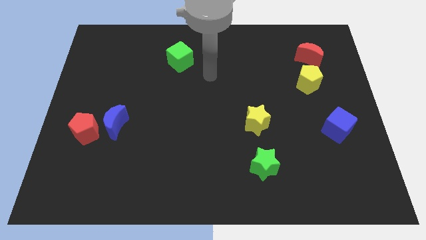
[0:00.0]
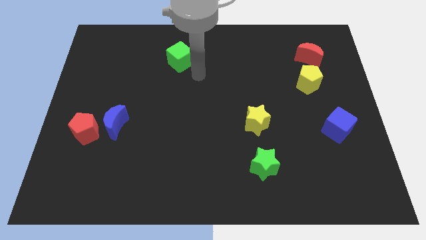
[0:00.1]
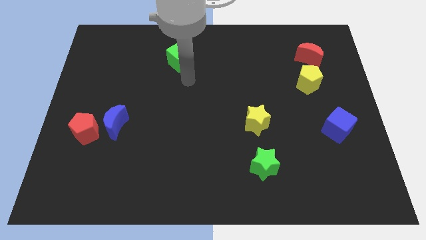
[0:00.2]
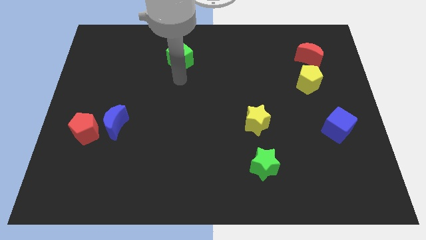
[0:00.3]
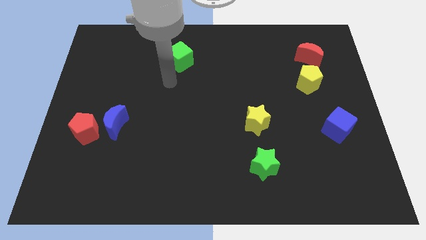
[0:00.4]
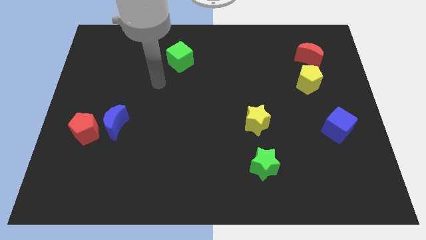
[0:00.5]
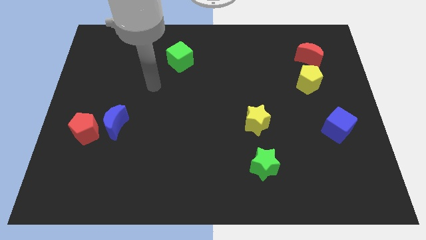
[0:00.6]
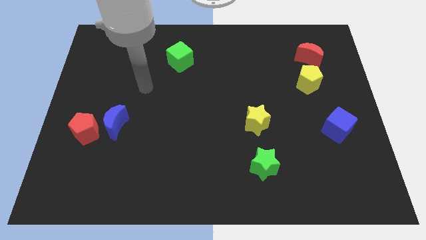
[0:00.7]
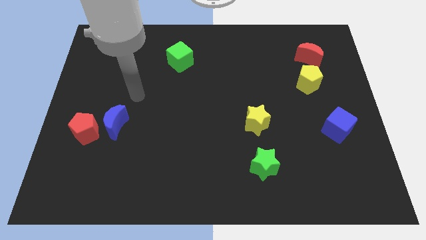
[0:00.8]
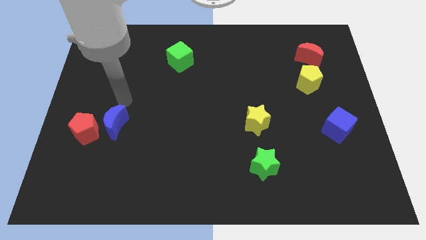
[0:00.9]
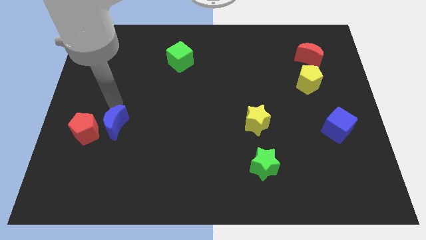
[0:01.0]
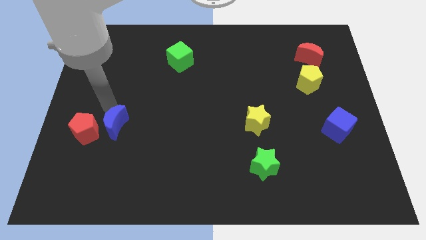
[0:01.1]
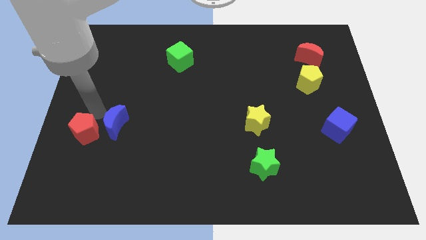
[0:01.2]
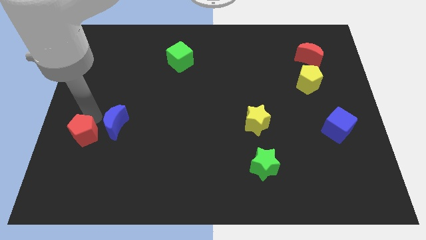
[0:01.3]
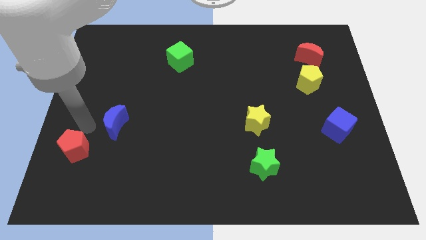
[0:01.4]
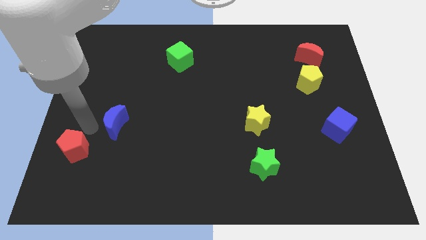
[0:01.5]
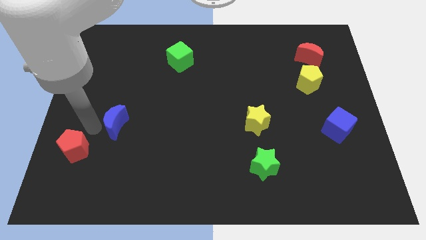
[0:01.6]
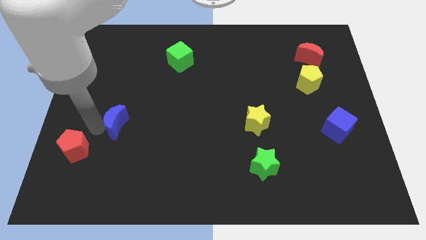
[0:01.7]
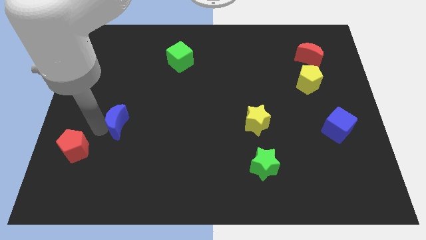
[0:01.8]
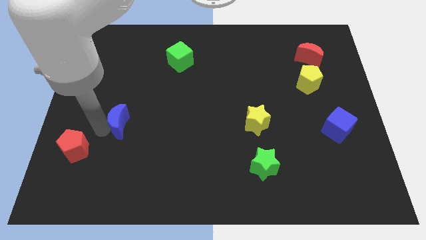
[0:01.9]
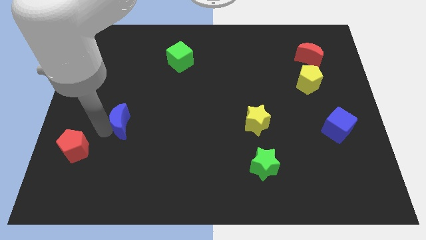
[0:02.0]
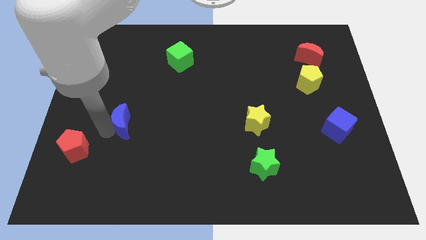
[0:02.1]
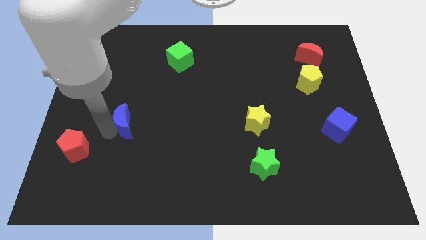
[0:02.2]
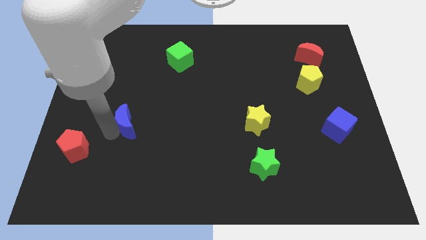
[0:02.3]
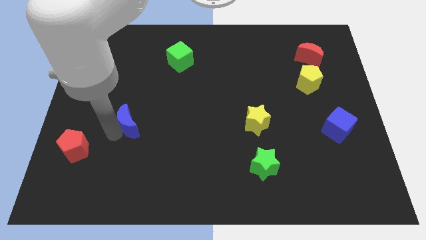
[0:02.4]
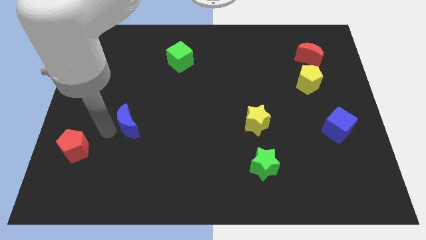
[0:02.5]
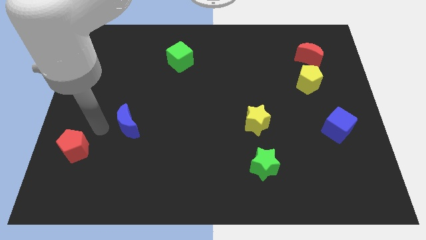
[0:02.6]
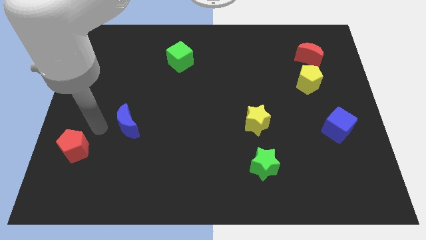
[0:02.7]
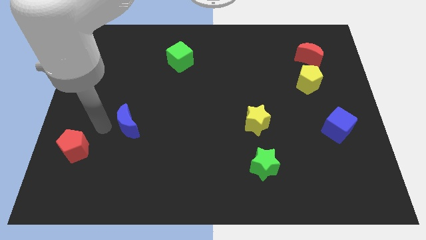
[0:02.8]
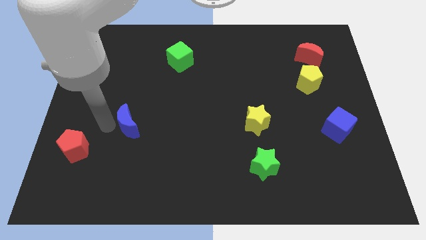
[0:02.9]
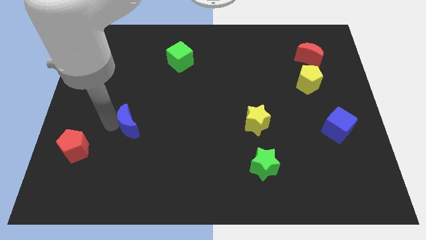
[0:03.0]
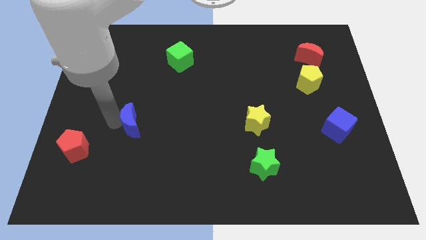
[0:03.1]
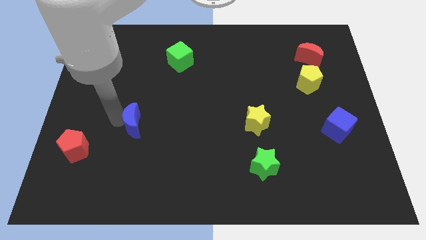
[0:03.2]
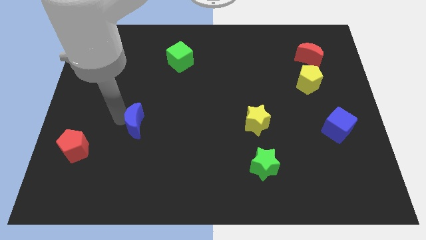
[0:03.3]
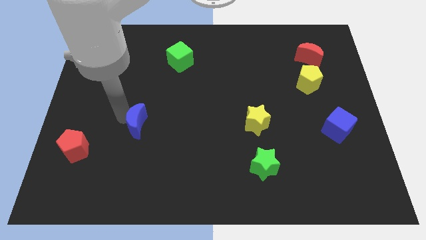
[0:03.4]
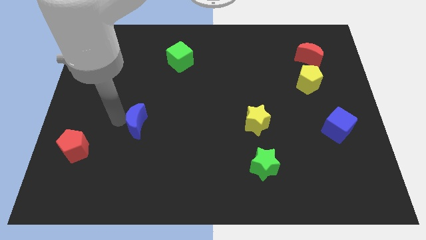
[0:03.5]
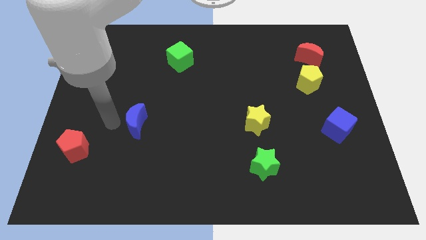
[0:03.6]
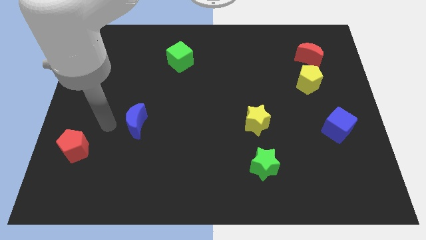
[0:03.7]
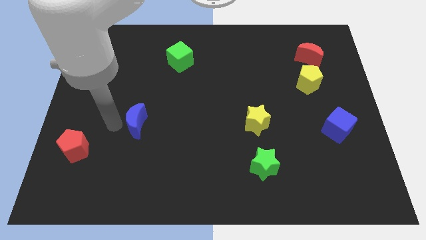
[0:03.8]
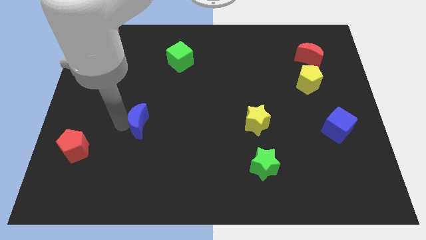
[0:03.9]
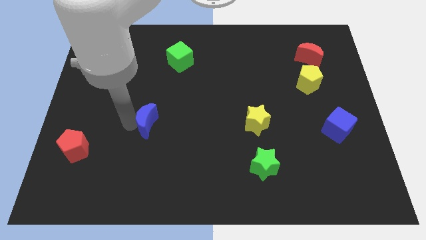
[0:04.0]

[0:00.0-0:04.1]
slightly slide the blue moon right

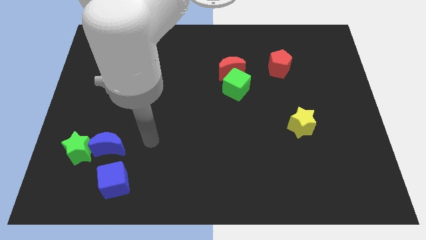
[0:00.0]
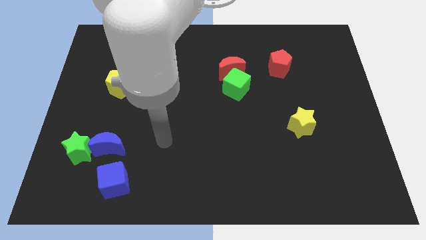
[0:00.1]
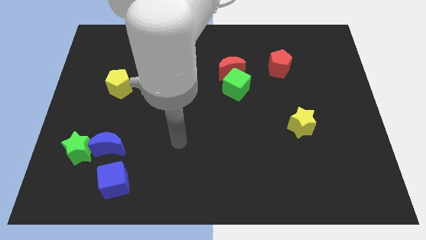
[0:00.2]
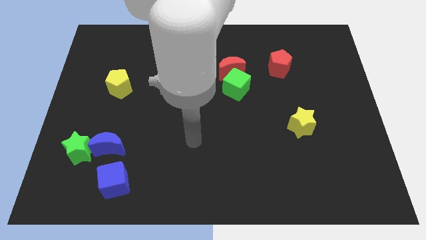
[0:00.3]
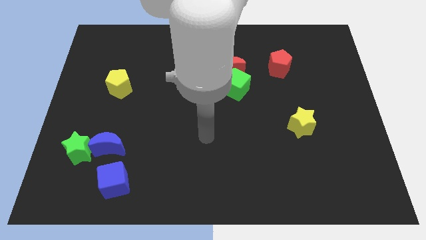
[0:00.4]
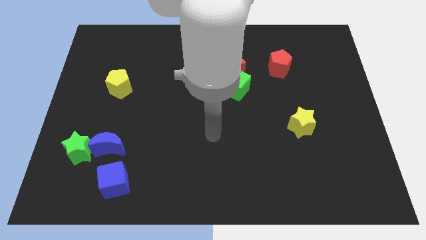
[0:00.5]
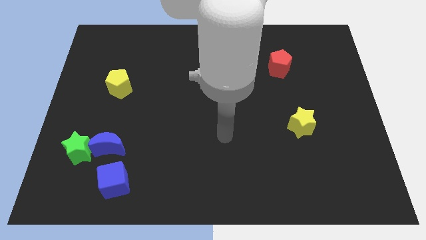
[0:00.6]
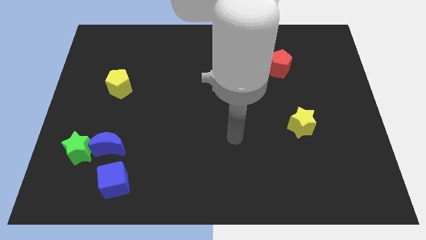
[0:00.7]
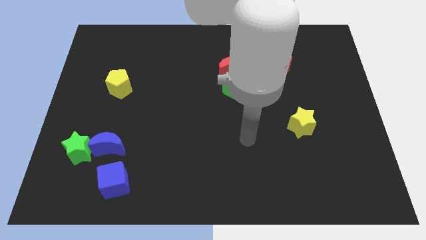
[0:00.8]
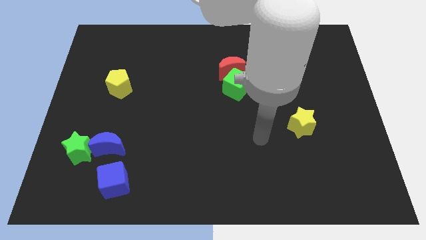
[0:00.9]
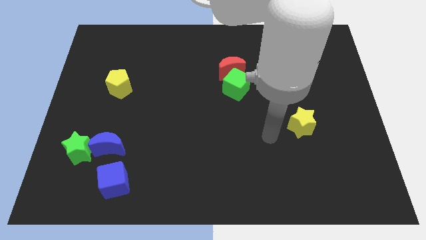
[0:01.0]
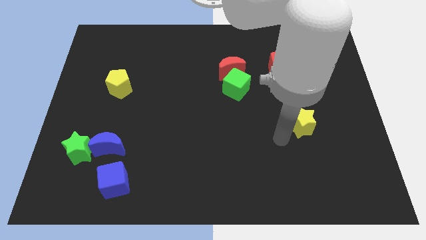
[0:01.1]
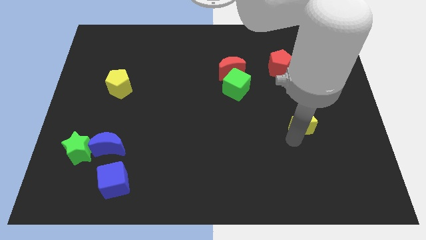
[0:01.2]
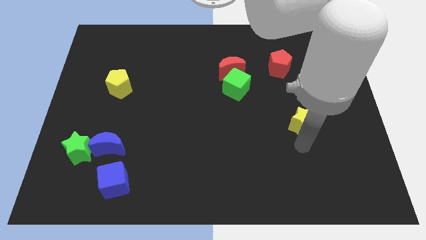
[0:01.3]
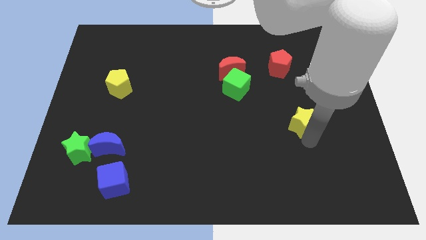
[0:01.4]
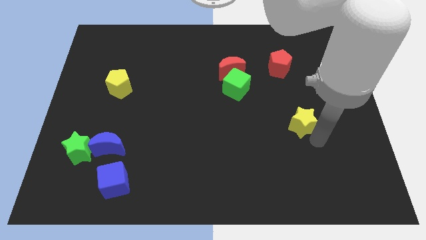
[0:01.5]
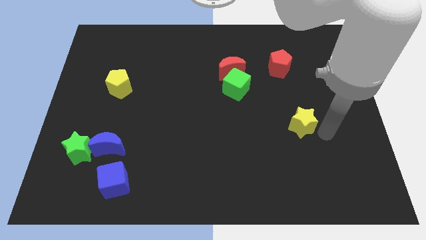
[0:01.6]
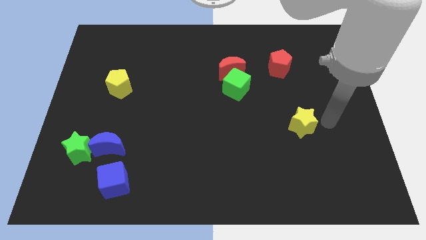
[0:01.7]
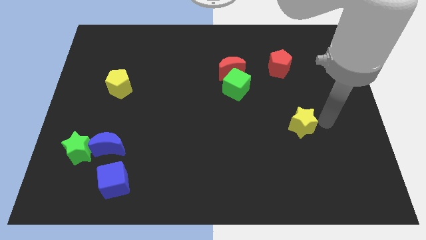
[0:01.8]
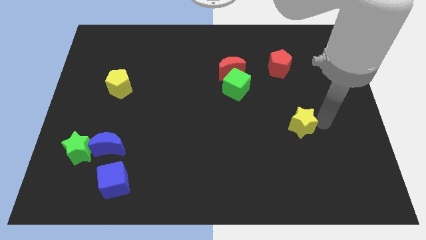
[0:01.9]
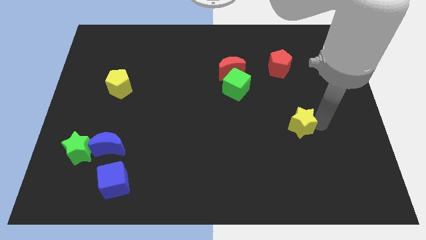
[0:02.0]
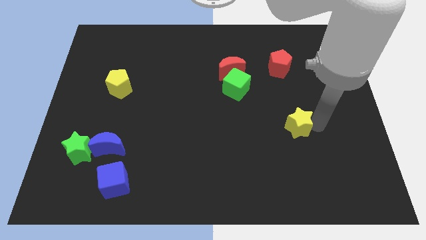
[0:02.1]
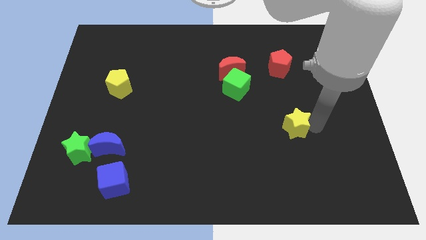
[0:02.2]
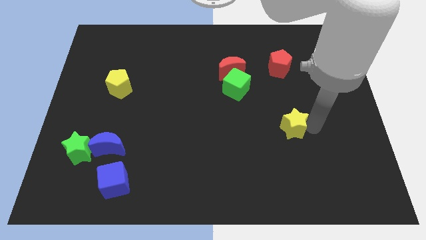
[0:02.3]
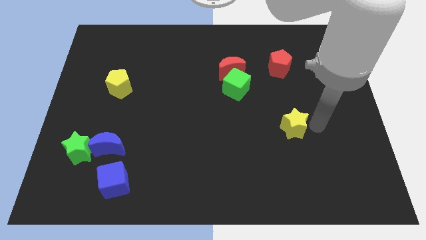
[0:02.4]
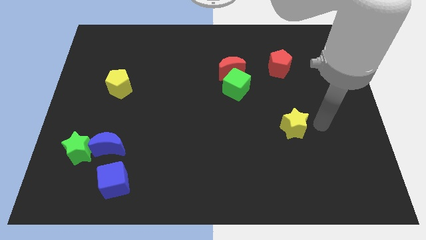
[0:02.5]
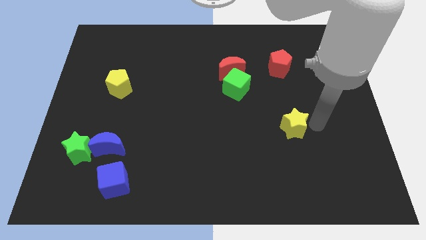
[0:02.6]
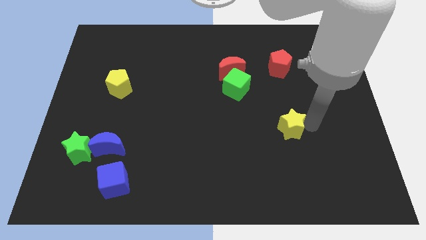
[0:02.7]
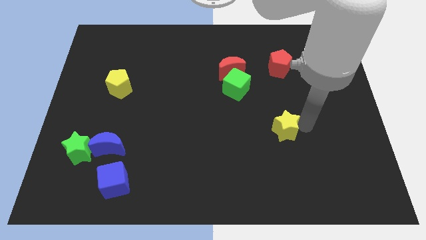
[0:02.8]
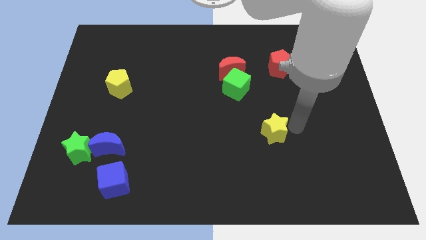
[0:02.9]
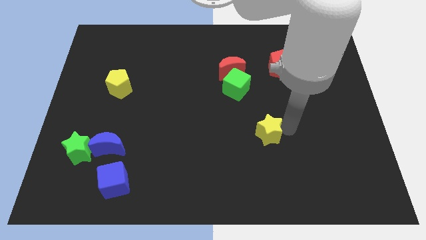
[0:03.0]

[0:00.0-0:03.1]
slide the yellow star a bit to the left

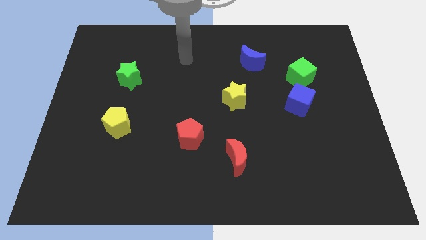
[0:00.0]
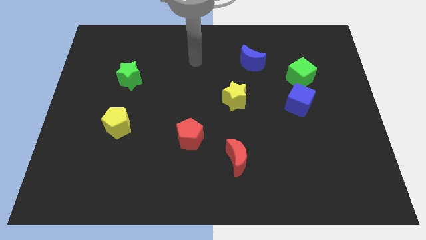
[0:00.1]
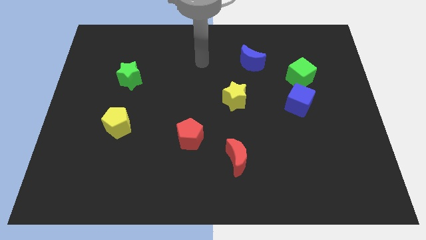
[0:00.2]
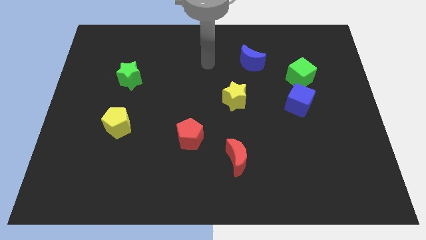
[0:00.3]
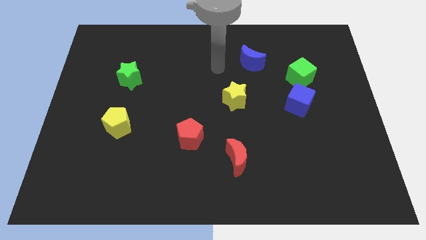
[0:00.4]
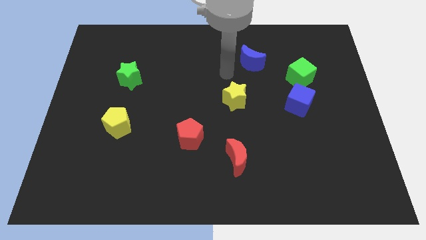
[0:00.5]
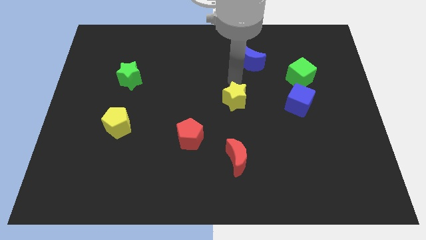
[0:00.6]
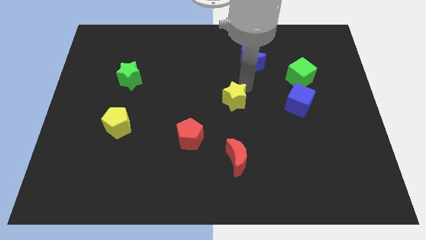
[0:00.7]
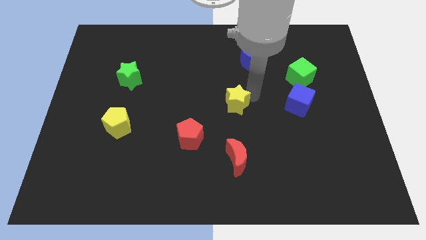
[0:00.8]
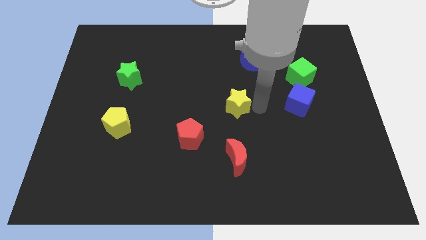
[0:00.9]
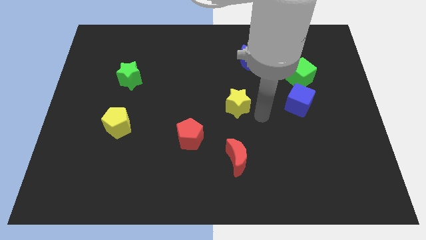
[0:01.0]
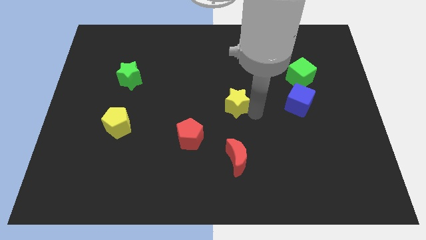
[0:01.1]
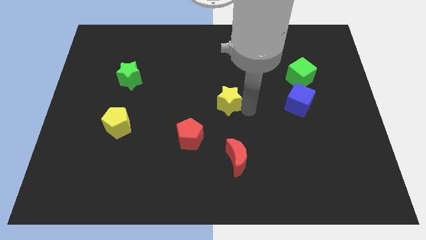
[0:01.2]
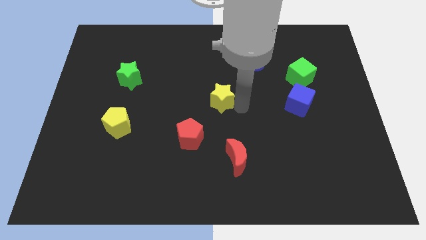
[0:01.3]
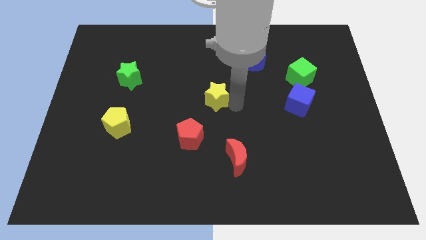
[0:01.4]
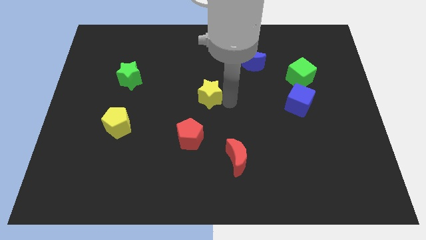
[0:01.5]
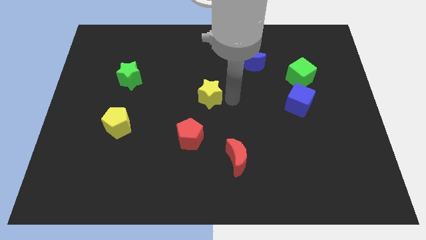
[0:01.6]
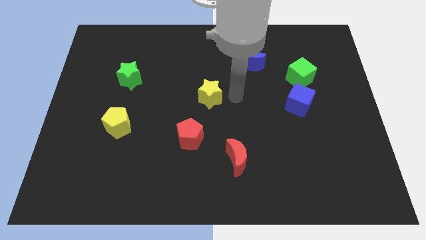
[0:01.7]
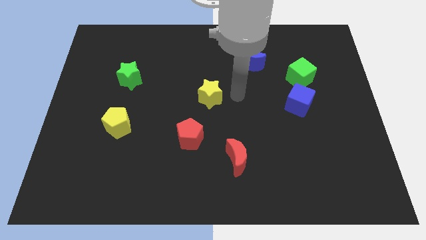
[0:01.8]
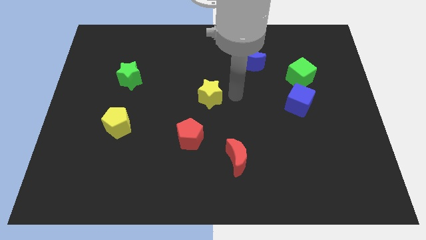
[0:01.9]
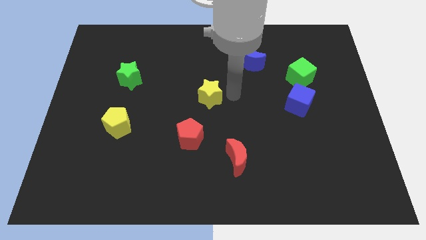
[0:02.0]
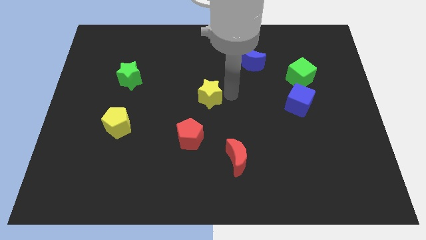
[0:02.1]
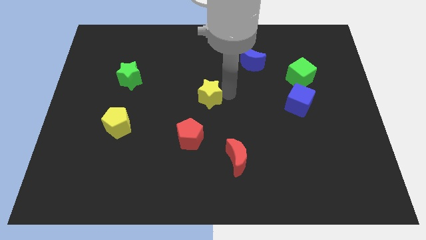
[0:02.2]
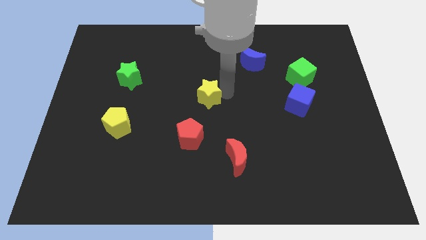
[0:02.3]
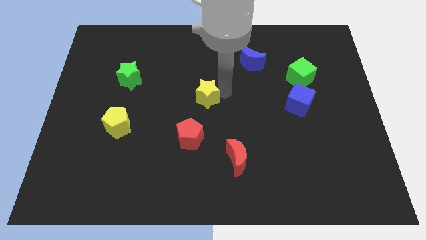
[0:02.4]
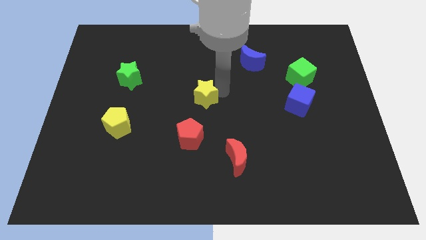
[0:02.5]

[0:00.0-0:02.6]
slide the yellow star a little bit left
